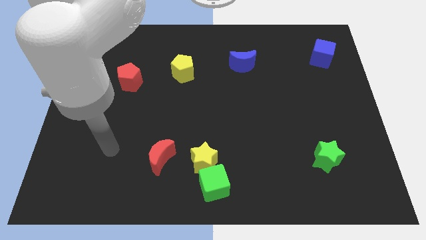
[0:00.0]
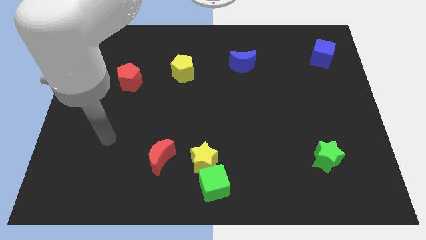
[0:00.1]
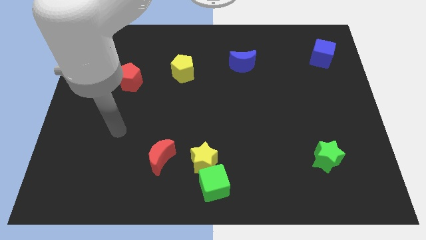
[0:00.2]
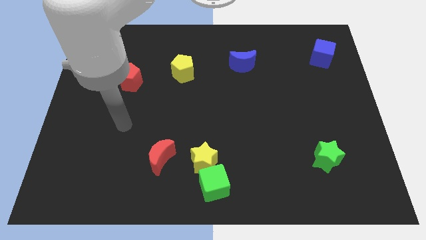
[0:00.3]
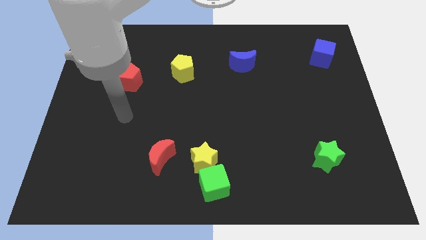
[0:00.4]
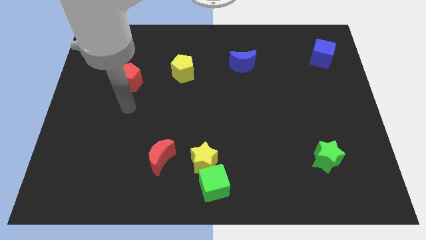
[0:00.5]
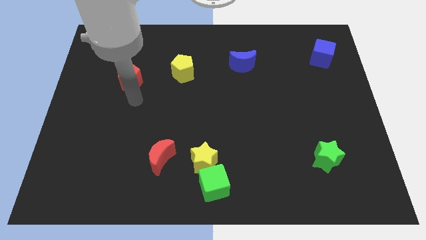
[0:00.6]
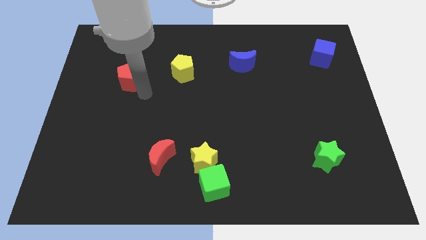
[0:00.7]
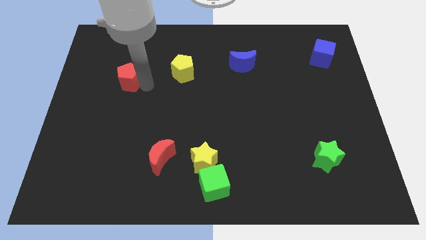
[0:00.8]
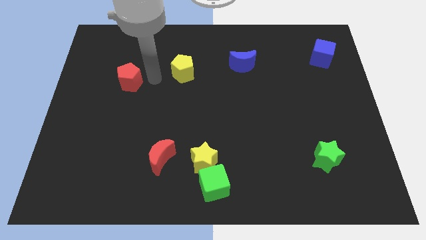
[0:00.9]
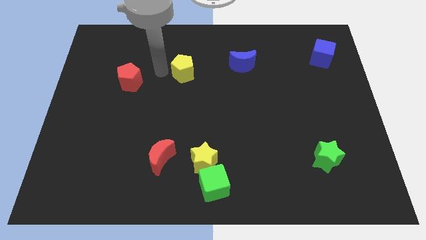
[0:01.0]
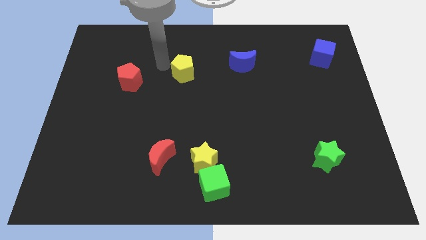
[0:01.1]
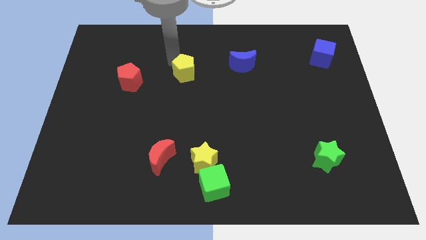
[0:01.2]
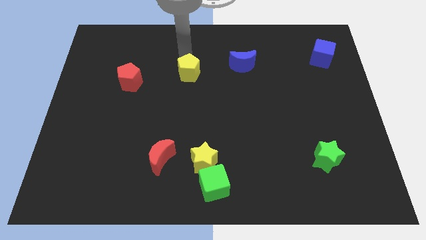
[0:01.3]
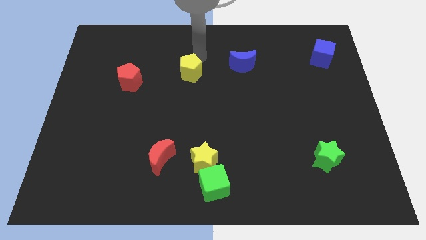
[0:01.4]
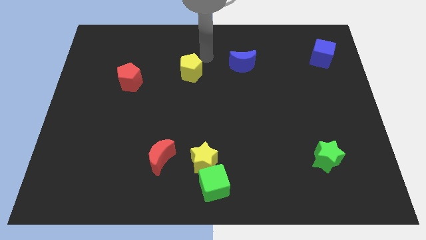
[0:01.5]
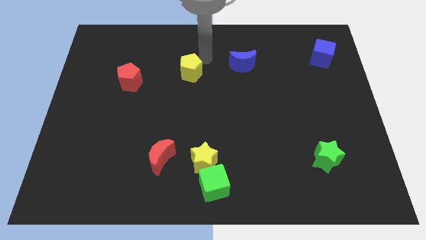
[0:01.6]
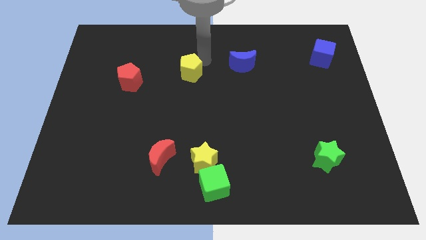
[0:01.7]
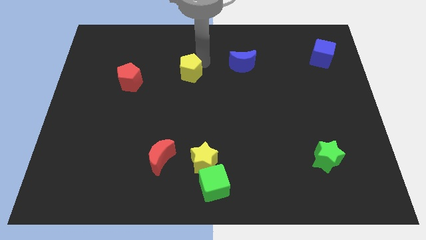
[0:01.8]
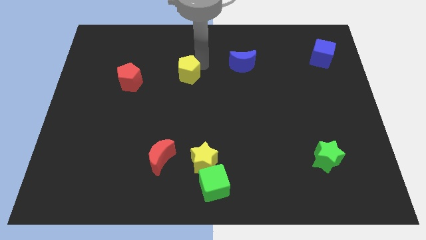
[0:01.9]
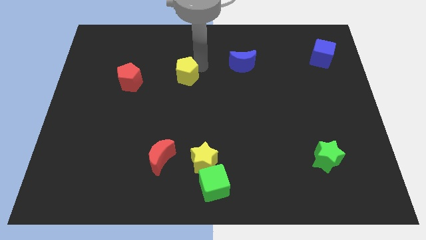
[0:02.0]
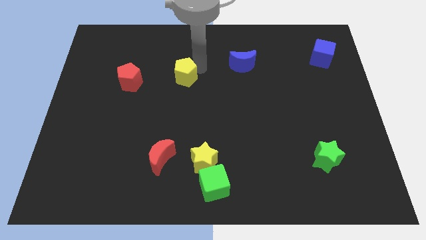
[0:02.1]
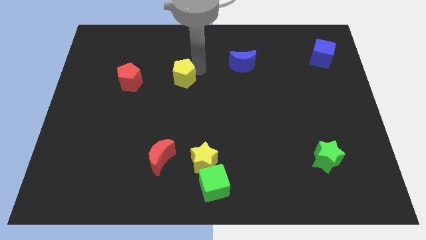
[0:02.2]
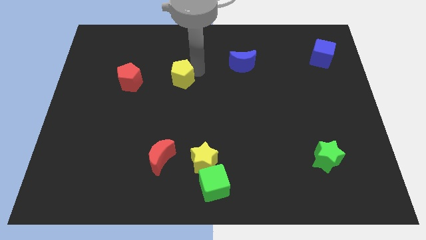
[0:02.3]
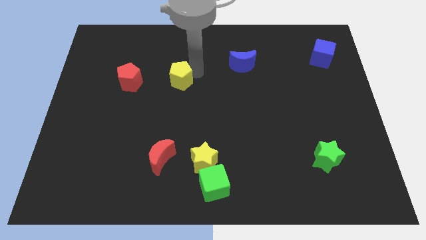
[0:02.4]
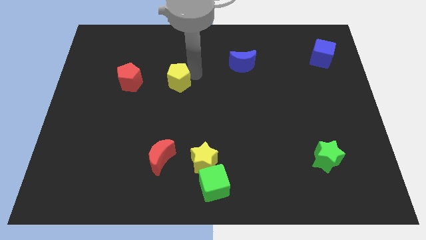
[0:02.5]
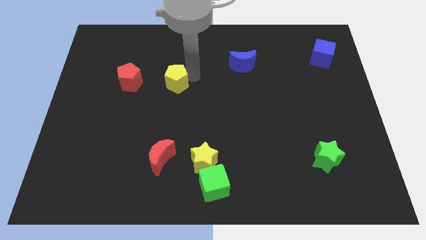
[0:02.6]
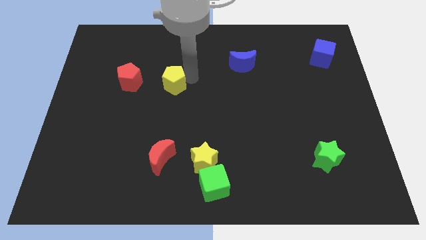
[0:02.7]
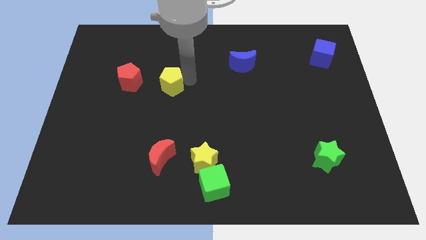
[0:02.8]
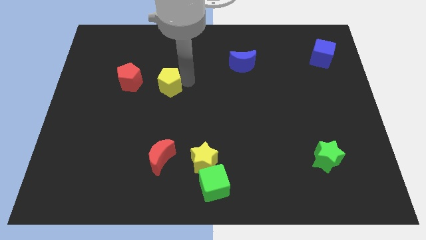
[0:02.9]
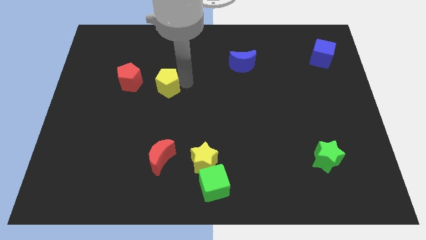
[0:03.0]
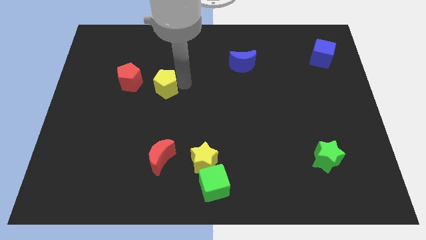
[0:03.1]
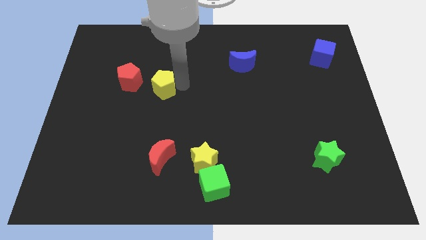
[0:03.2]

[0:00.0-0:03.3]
slightly slide the yellow pentagon down and to the left

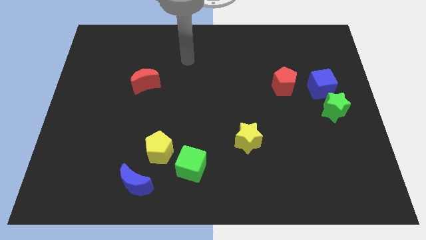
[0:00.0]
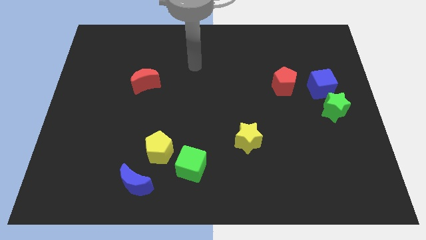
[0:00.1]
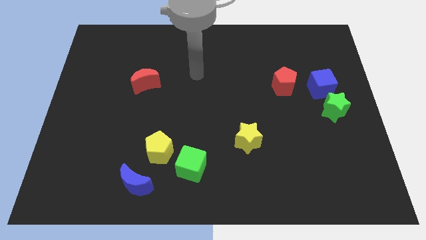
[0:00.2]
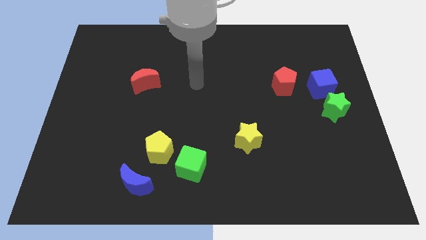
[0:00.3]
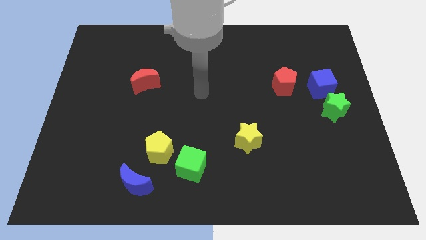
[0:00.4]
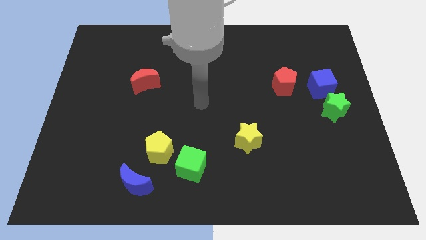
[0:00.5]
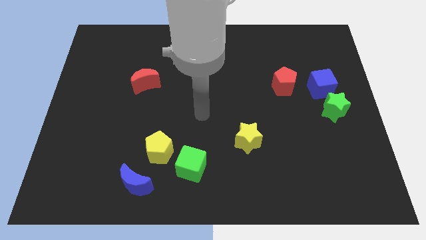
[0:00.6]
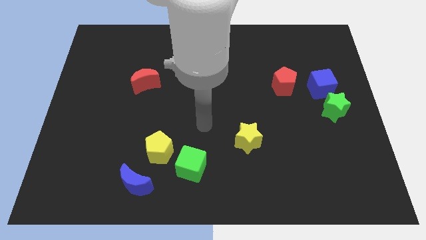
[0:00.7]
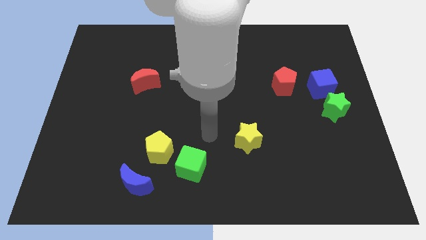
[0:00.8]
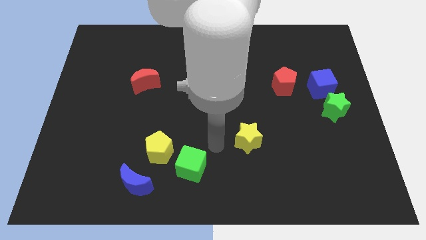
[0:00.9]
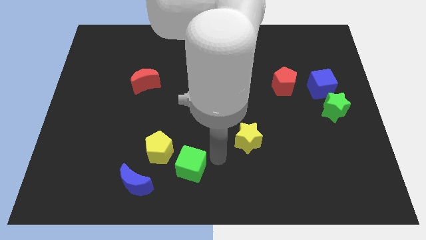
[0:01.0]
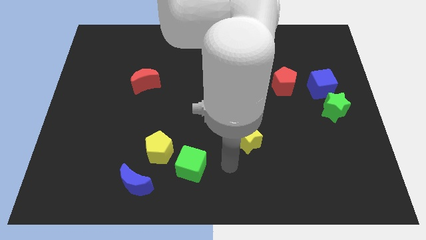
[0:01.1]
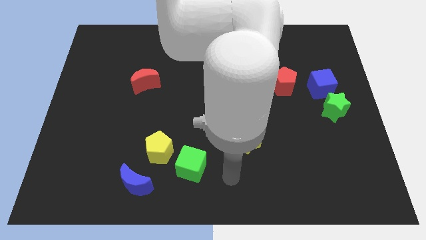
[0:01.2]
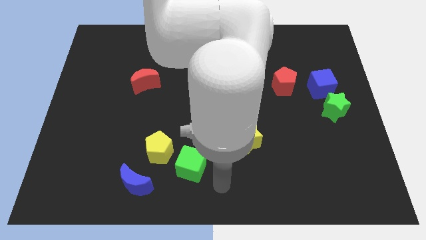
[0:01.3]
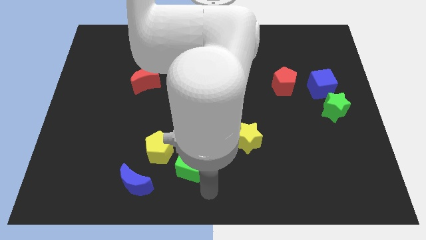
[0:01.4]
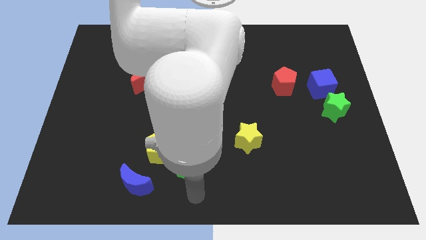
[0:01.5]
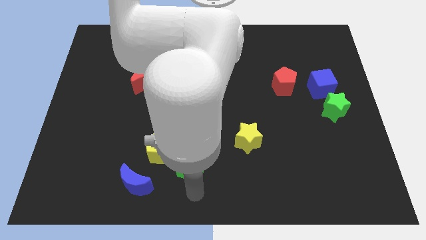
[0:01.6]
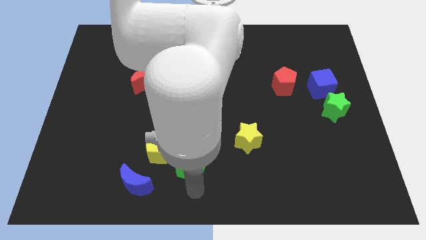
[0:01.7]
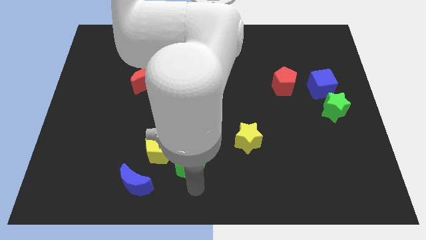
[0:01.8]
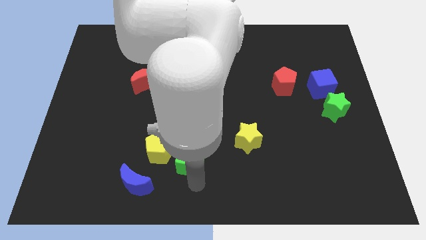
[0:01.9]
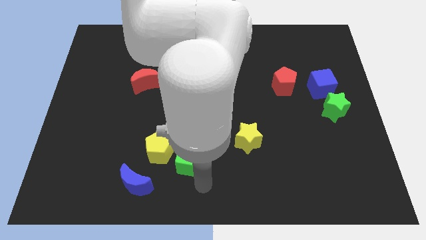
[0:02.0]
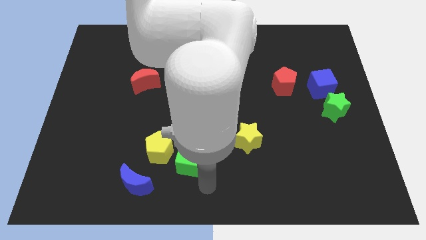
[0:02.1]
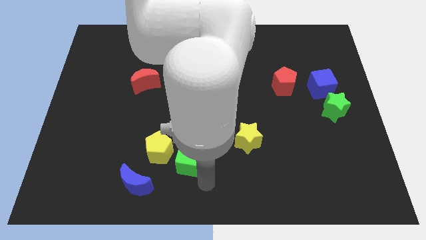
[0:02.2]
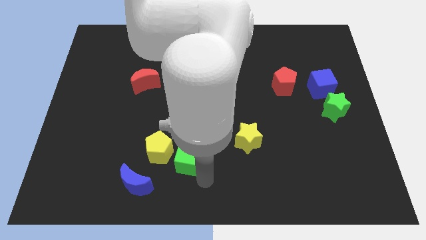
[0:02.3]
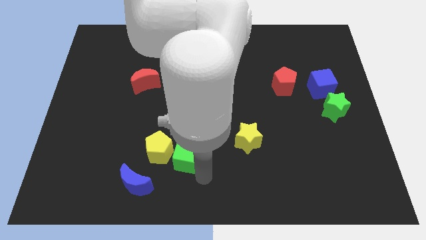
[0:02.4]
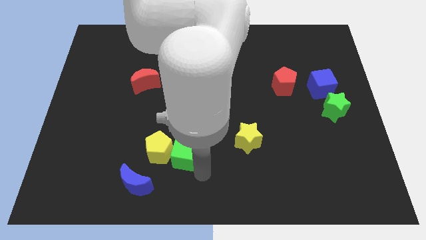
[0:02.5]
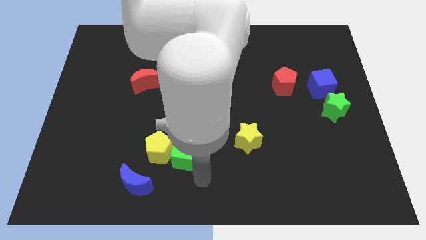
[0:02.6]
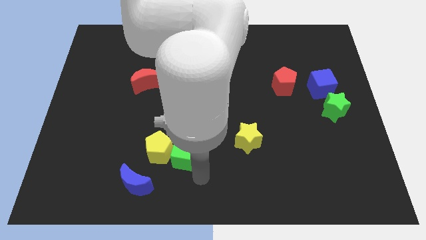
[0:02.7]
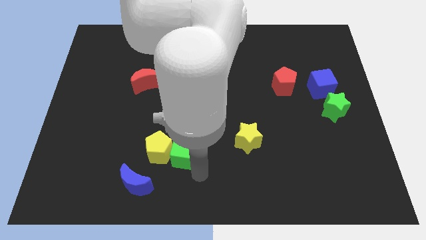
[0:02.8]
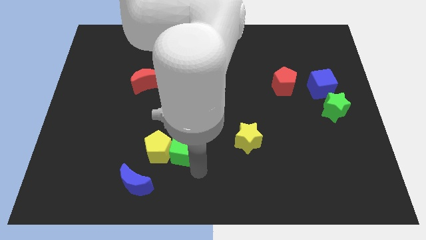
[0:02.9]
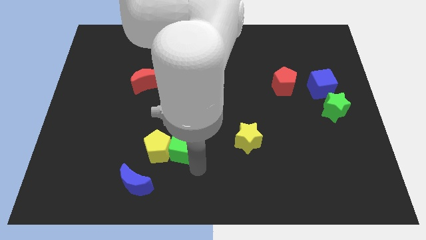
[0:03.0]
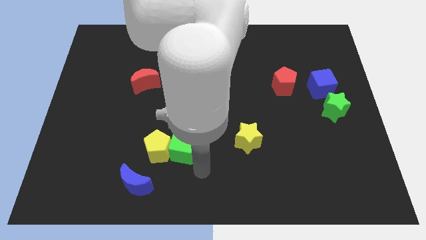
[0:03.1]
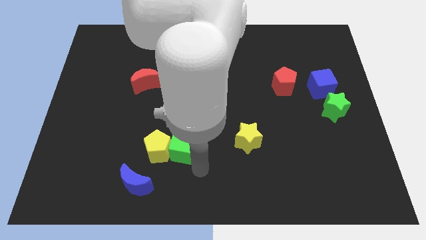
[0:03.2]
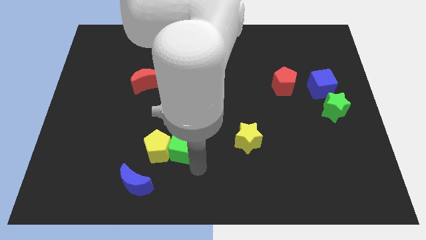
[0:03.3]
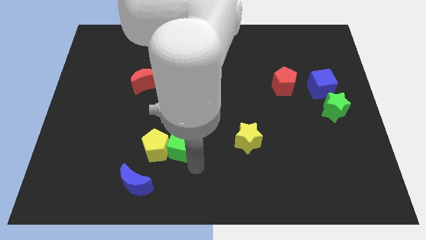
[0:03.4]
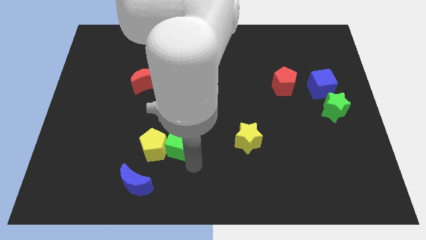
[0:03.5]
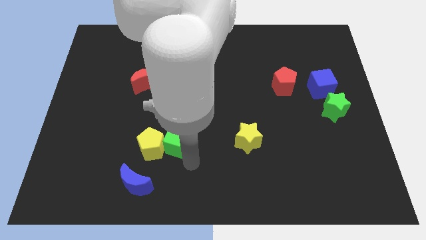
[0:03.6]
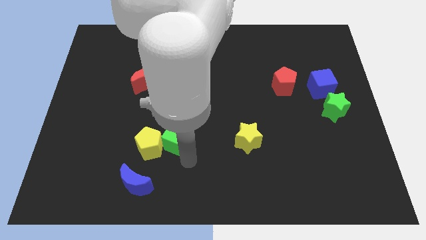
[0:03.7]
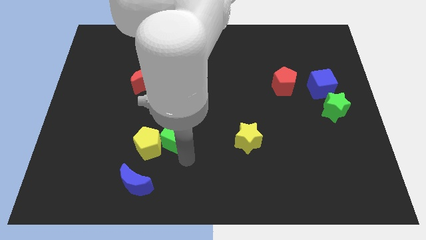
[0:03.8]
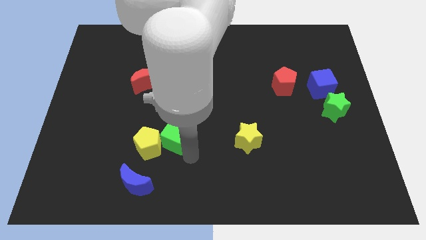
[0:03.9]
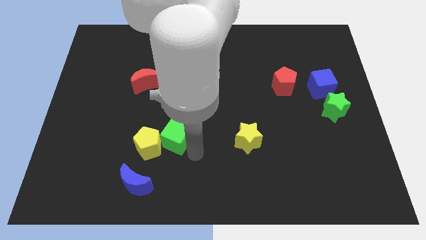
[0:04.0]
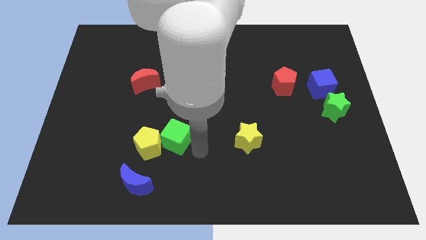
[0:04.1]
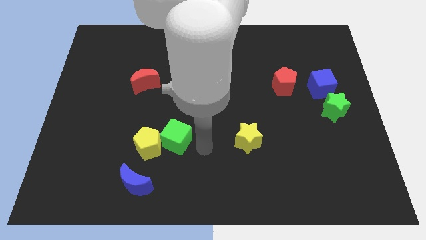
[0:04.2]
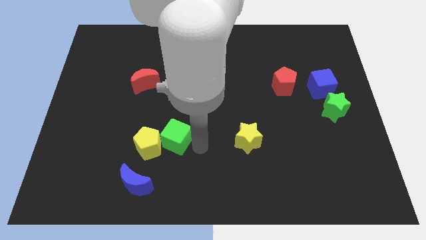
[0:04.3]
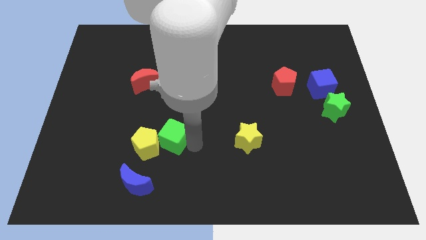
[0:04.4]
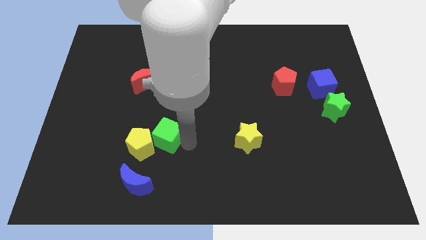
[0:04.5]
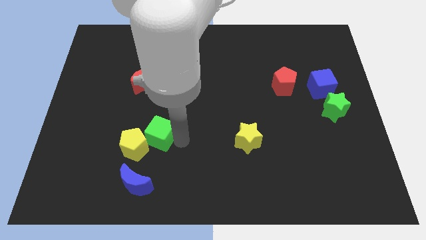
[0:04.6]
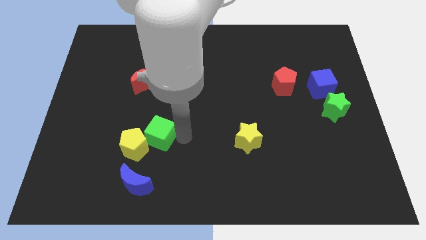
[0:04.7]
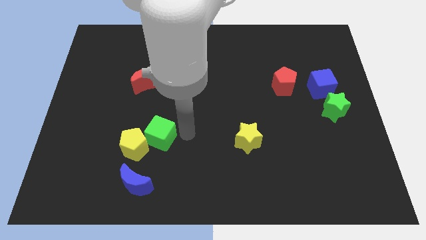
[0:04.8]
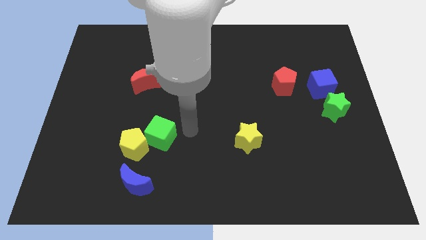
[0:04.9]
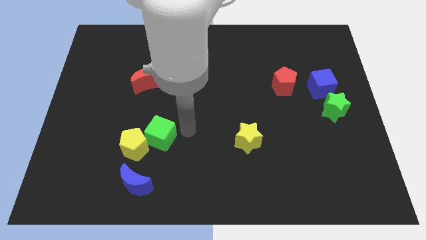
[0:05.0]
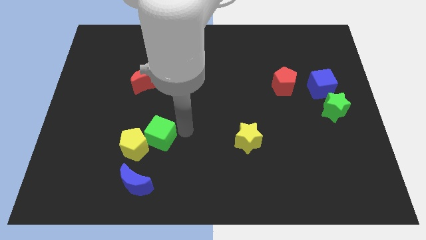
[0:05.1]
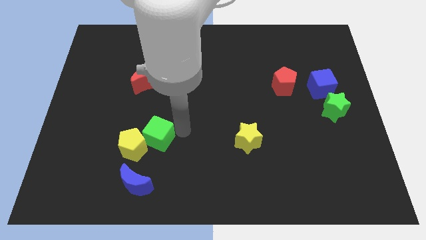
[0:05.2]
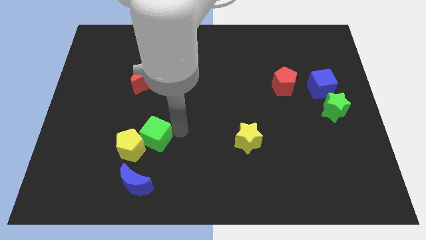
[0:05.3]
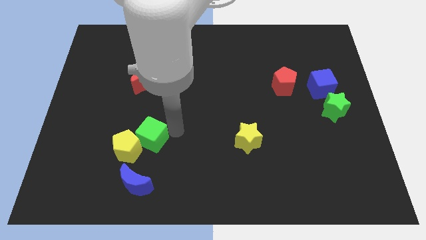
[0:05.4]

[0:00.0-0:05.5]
slide the green cube a little bit to the left
